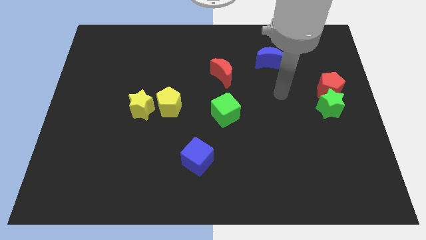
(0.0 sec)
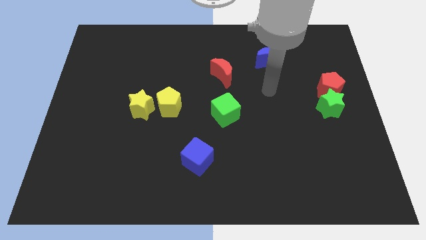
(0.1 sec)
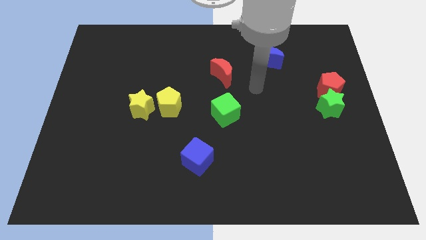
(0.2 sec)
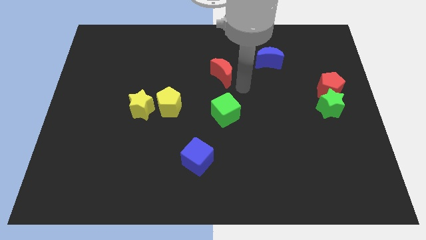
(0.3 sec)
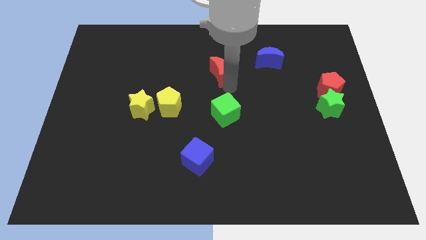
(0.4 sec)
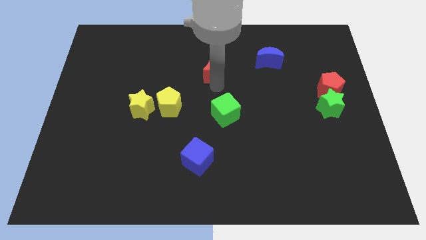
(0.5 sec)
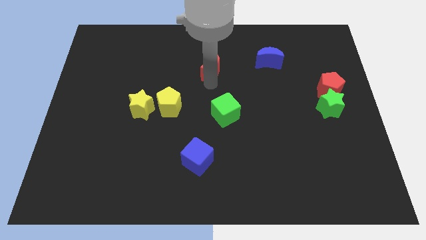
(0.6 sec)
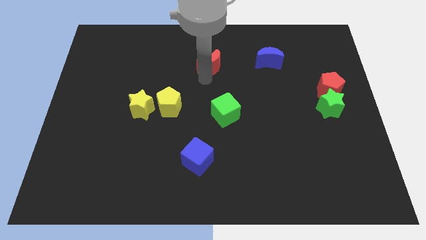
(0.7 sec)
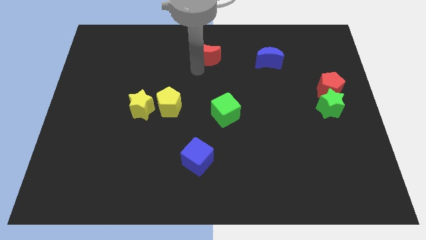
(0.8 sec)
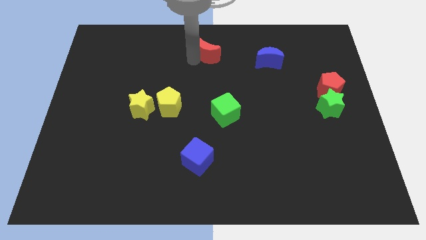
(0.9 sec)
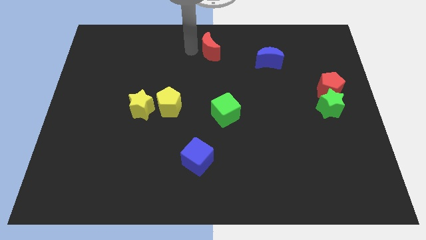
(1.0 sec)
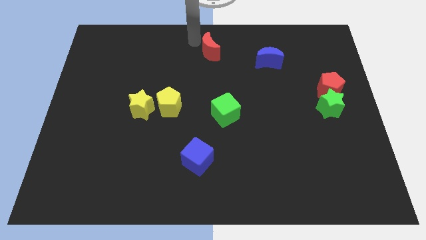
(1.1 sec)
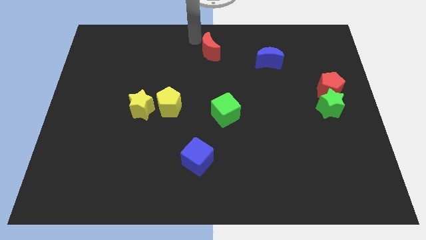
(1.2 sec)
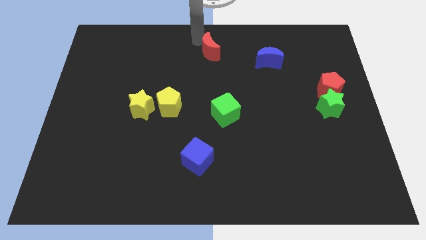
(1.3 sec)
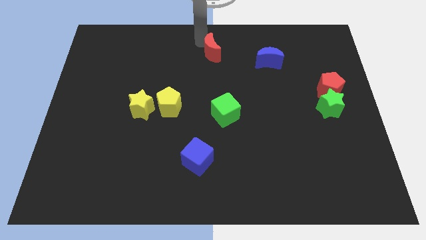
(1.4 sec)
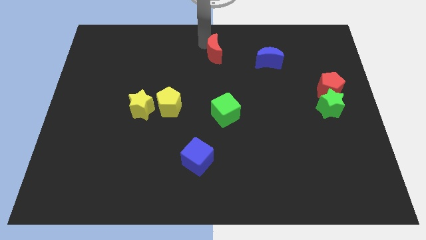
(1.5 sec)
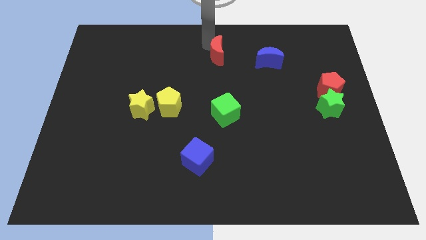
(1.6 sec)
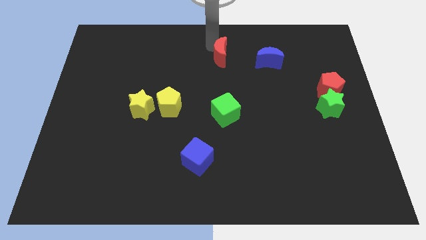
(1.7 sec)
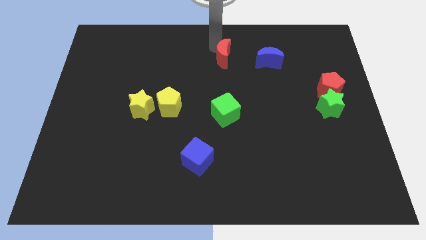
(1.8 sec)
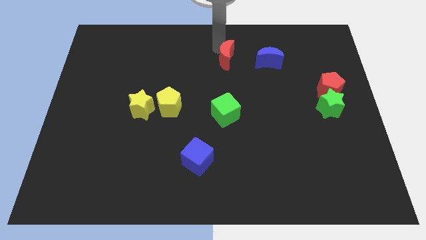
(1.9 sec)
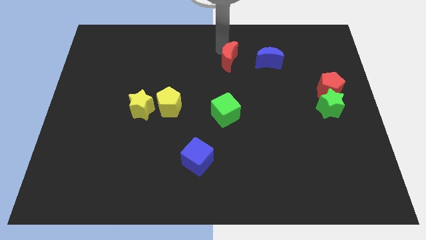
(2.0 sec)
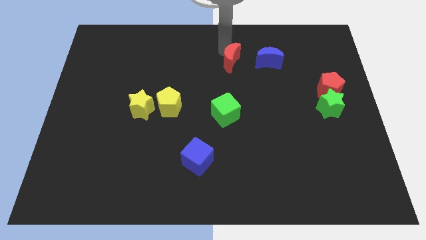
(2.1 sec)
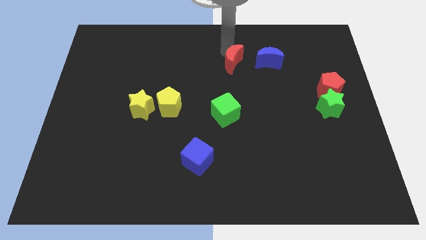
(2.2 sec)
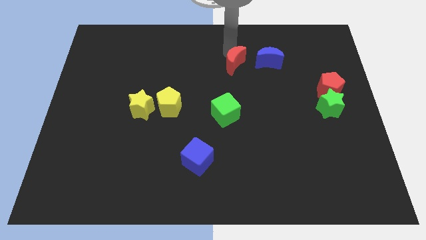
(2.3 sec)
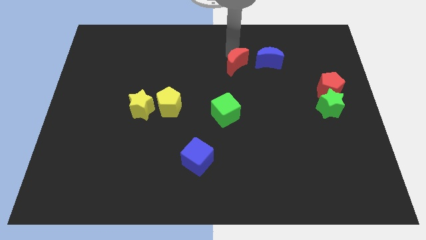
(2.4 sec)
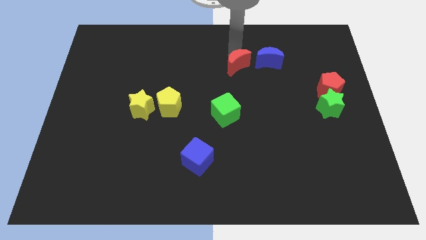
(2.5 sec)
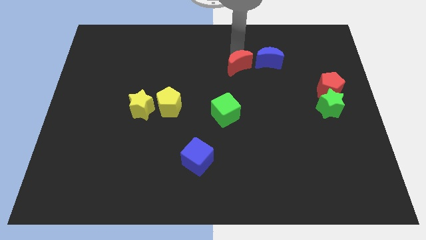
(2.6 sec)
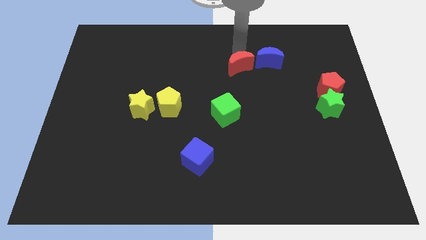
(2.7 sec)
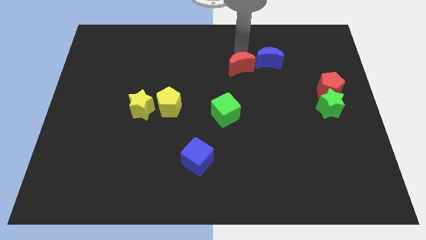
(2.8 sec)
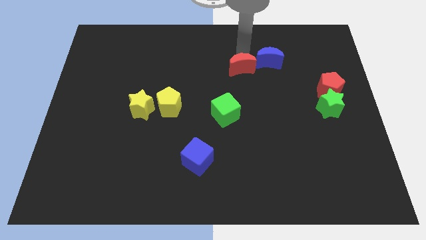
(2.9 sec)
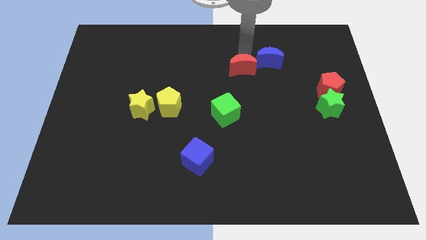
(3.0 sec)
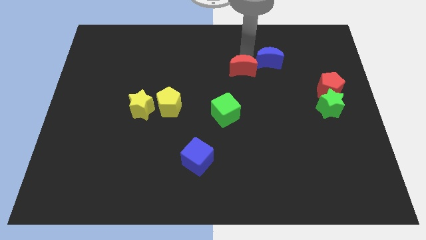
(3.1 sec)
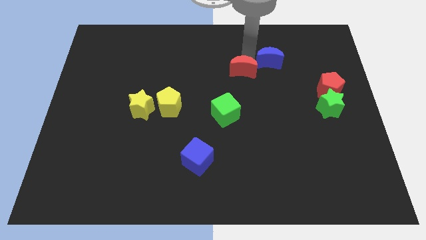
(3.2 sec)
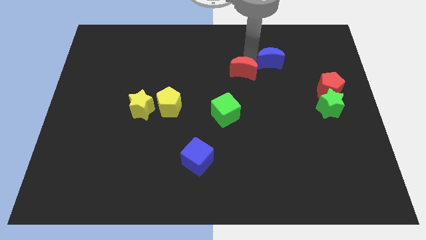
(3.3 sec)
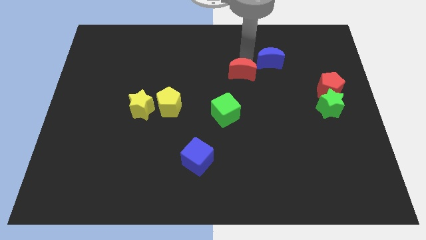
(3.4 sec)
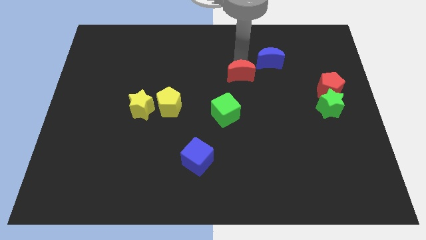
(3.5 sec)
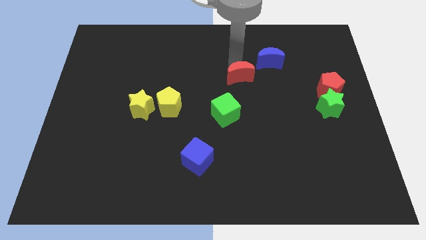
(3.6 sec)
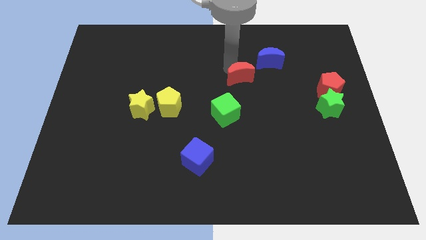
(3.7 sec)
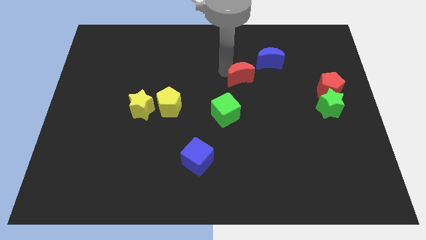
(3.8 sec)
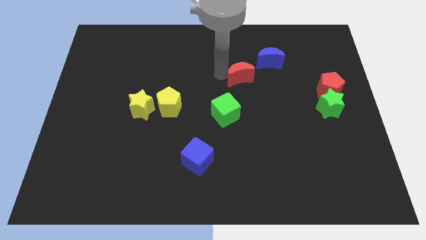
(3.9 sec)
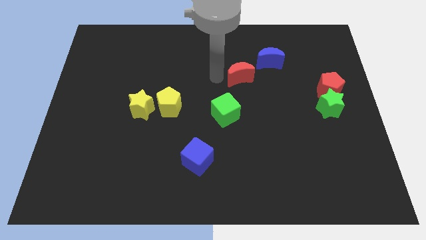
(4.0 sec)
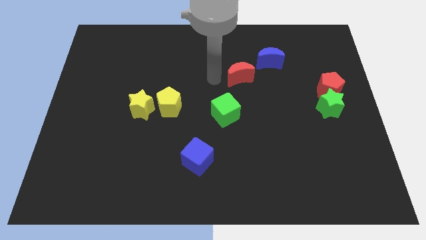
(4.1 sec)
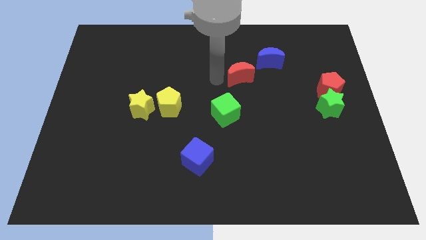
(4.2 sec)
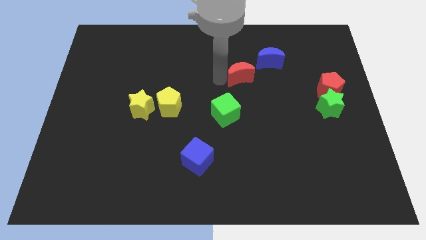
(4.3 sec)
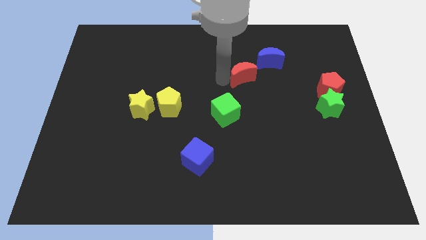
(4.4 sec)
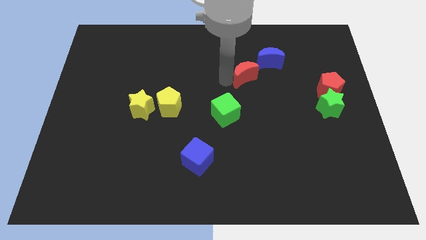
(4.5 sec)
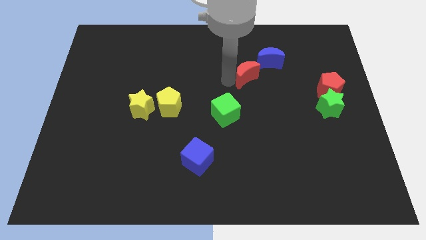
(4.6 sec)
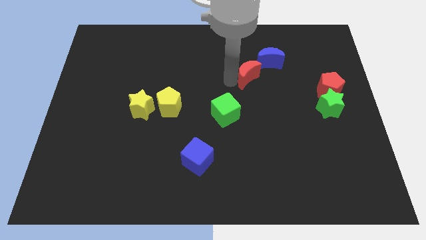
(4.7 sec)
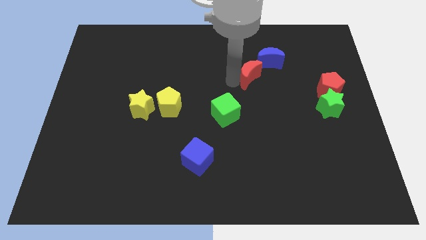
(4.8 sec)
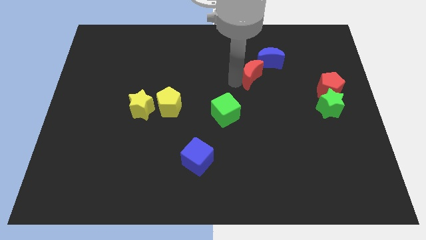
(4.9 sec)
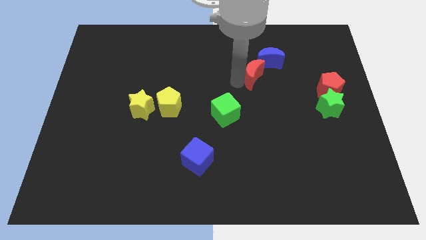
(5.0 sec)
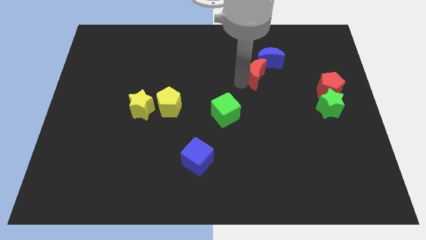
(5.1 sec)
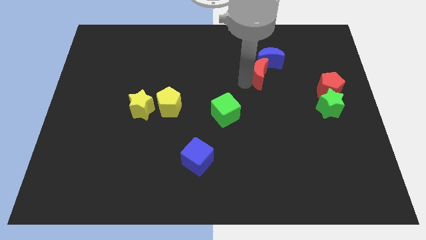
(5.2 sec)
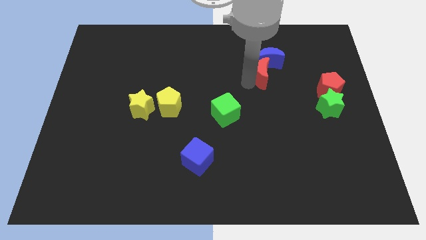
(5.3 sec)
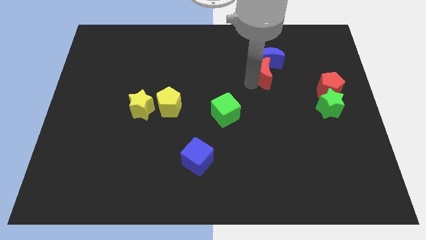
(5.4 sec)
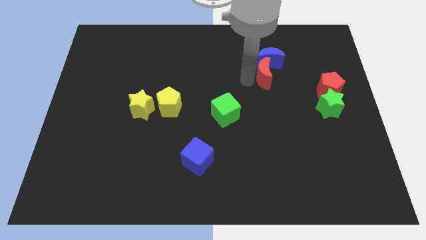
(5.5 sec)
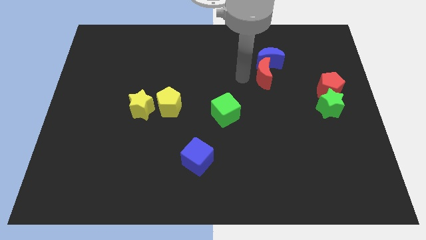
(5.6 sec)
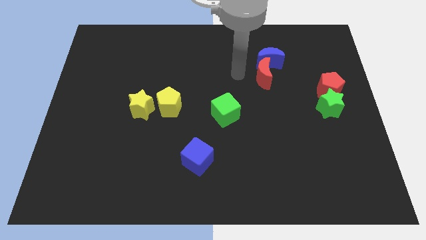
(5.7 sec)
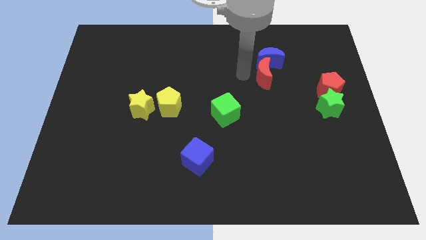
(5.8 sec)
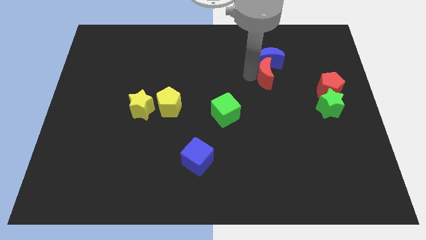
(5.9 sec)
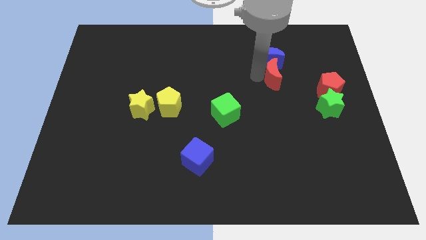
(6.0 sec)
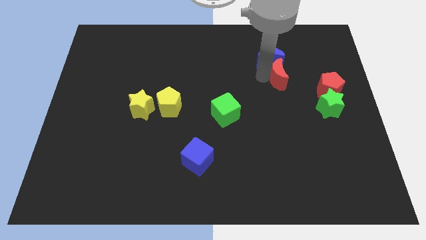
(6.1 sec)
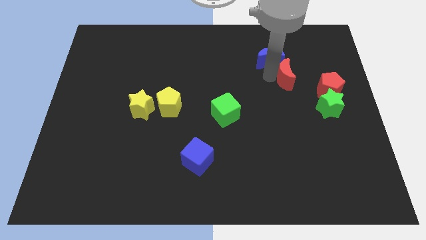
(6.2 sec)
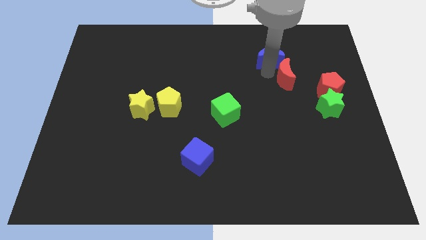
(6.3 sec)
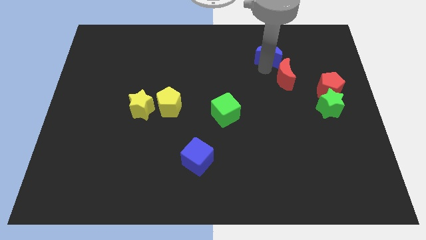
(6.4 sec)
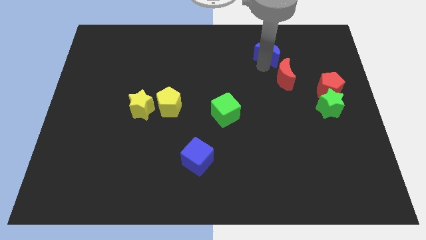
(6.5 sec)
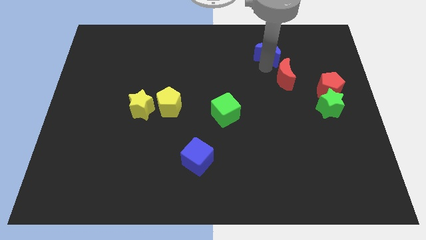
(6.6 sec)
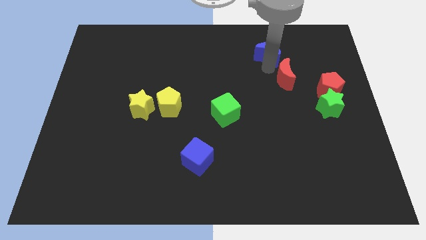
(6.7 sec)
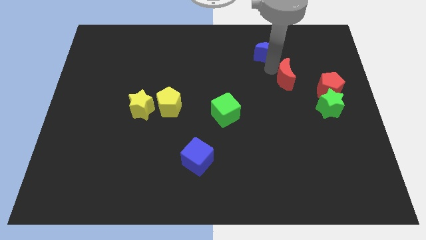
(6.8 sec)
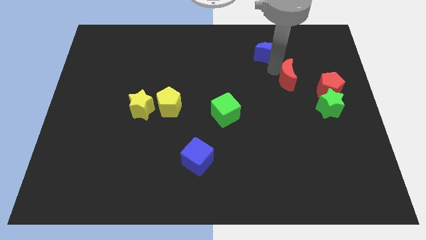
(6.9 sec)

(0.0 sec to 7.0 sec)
slide the red moon to the top left side of the green star

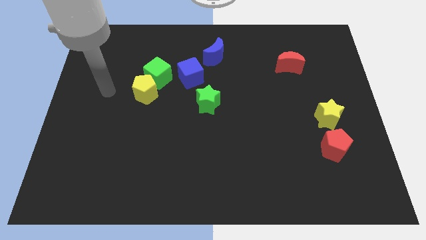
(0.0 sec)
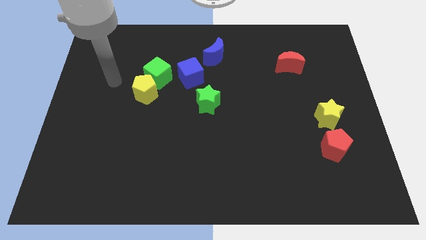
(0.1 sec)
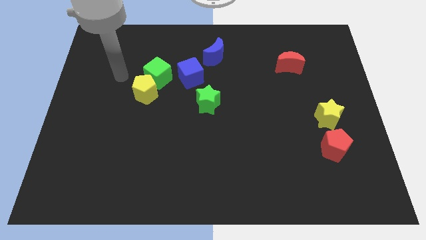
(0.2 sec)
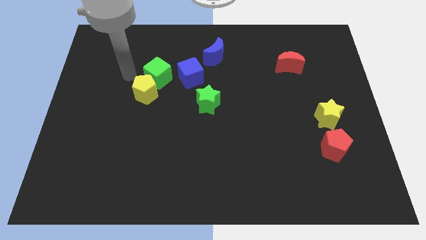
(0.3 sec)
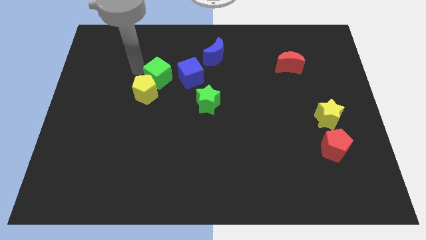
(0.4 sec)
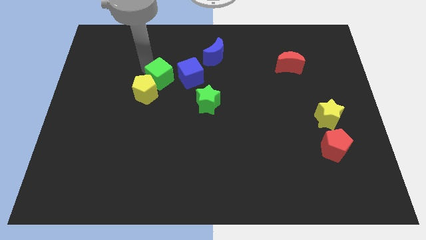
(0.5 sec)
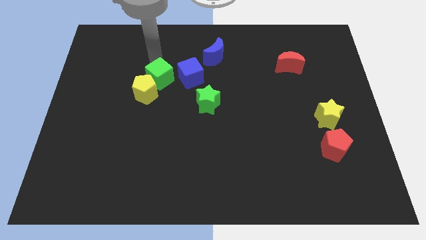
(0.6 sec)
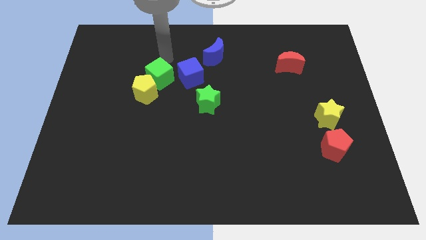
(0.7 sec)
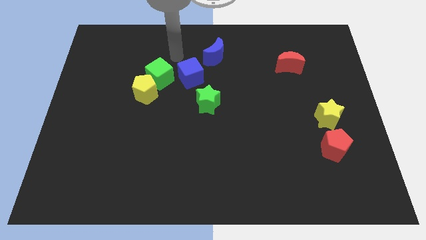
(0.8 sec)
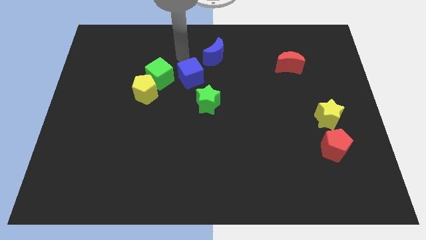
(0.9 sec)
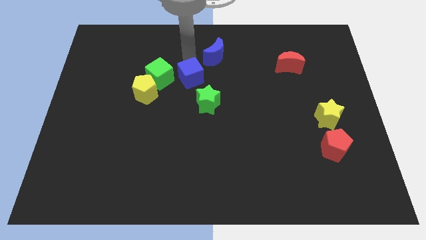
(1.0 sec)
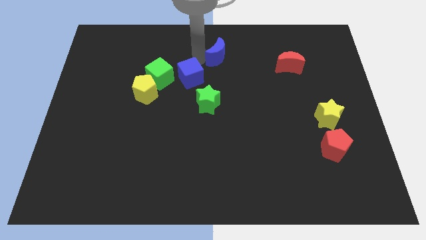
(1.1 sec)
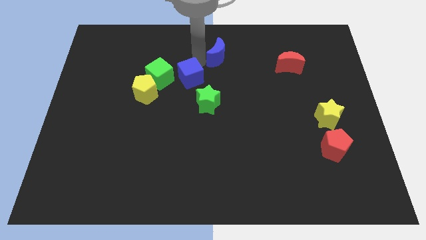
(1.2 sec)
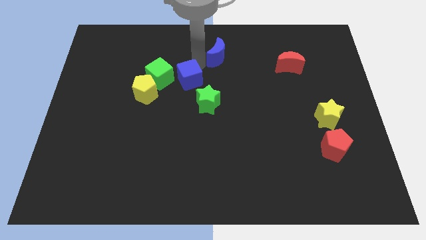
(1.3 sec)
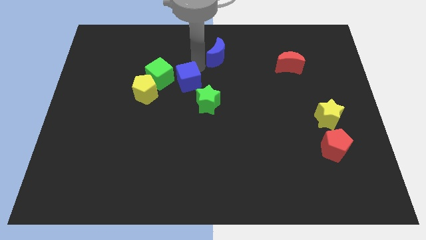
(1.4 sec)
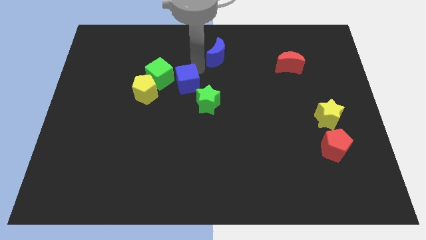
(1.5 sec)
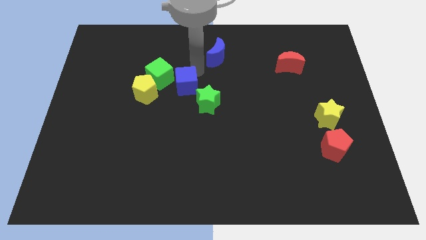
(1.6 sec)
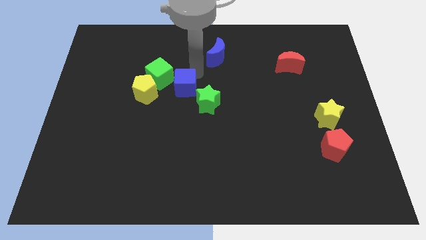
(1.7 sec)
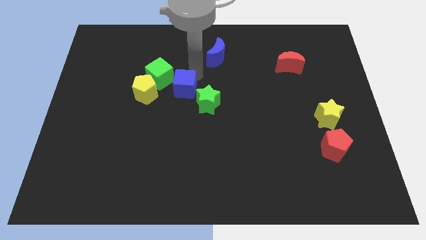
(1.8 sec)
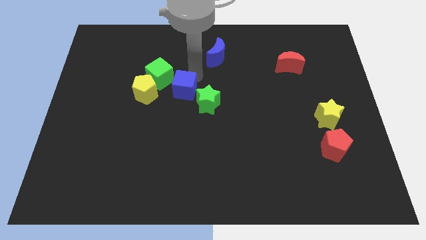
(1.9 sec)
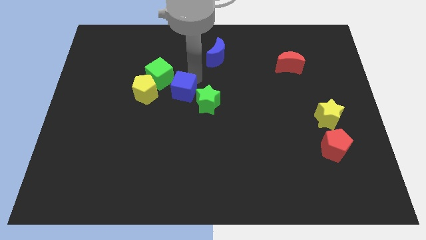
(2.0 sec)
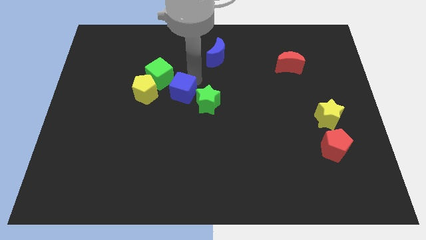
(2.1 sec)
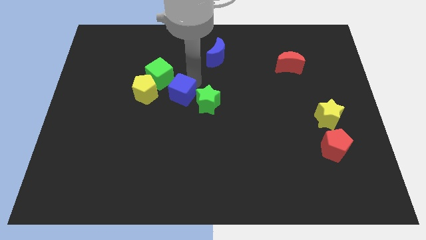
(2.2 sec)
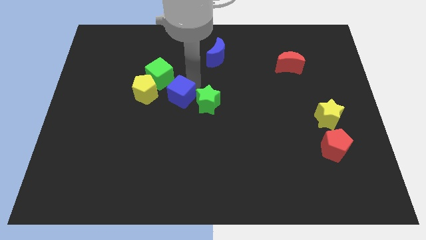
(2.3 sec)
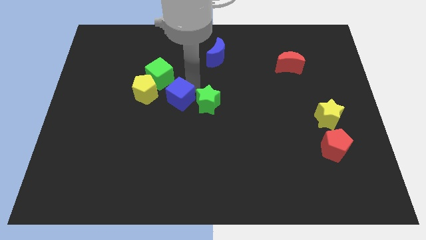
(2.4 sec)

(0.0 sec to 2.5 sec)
push the blue cube diagonally down and to the right of the yellow pentagon
